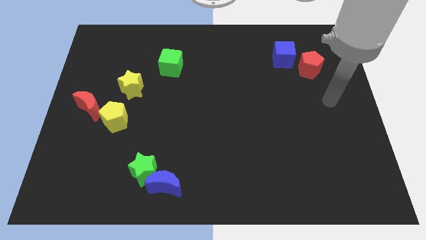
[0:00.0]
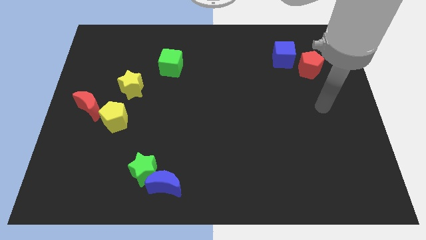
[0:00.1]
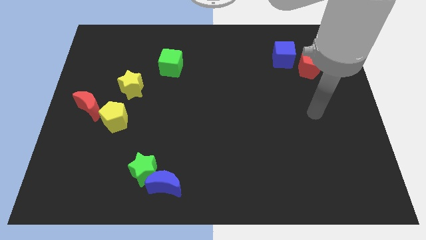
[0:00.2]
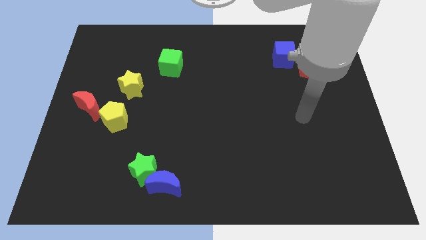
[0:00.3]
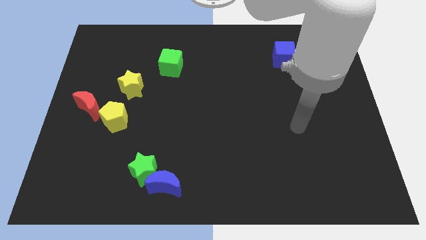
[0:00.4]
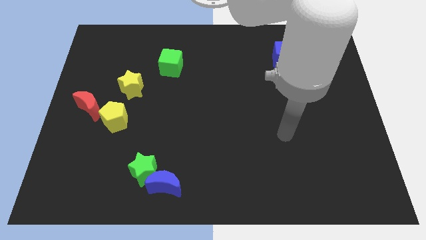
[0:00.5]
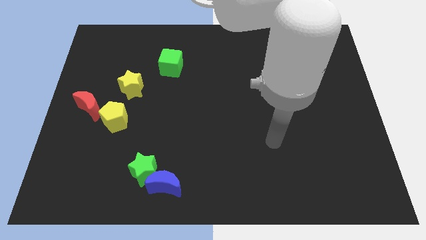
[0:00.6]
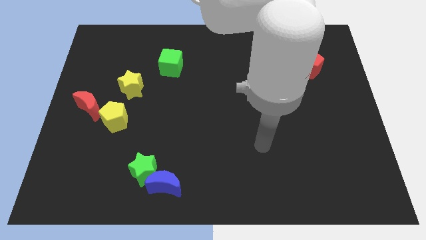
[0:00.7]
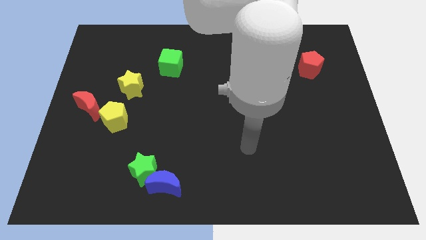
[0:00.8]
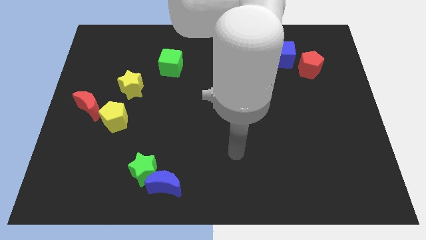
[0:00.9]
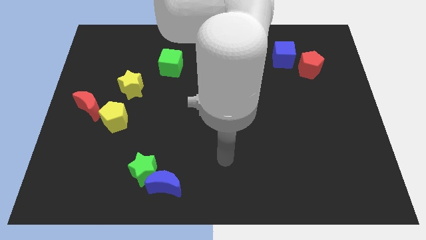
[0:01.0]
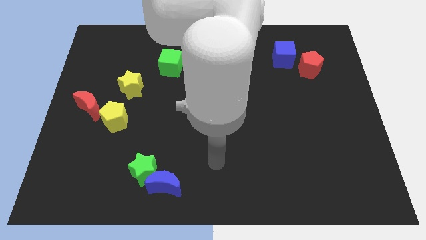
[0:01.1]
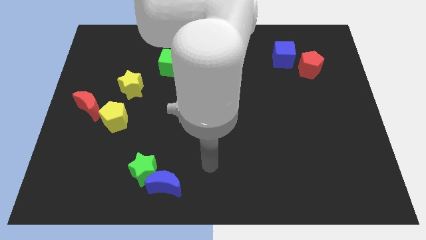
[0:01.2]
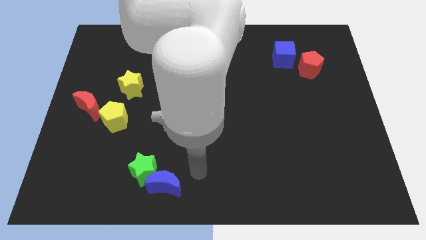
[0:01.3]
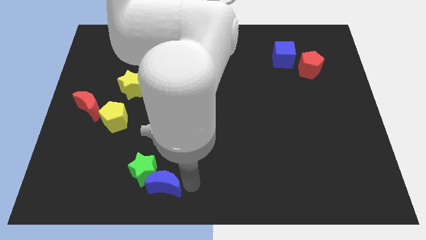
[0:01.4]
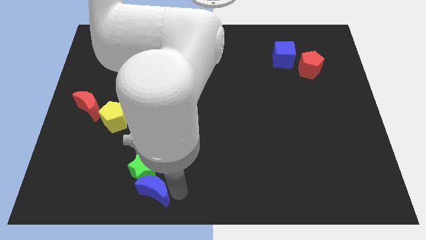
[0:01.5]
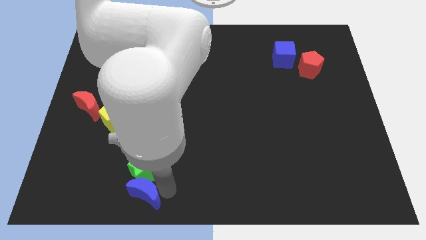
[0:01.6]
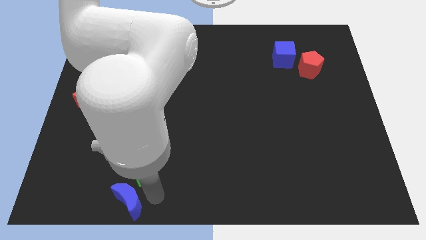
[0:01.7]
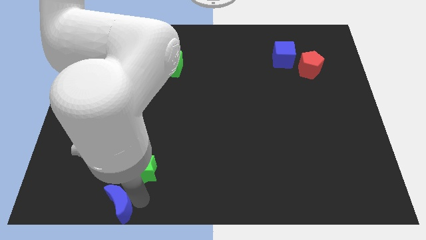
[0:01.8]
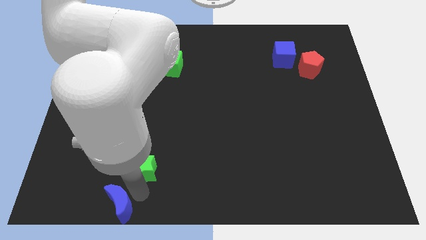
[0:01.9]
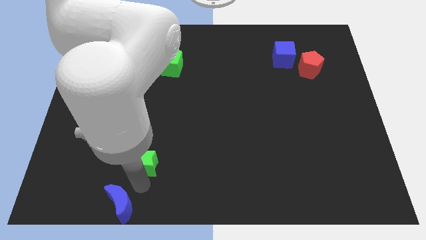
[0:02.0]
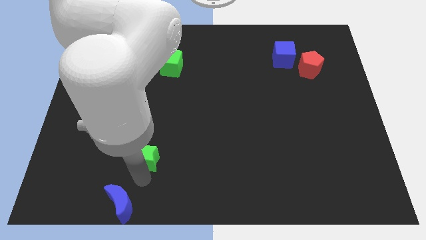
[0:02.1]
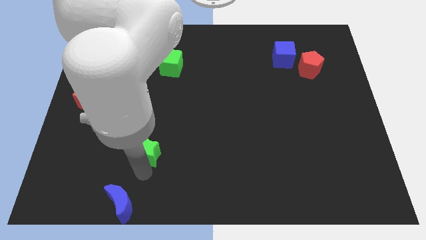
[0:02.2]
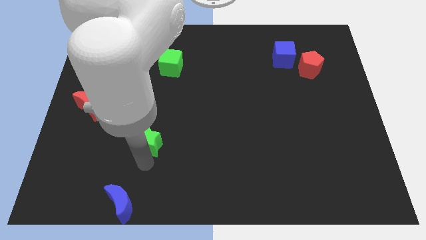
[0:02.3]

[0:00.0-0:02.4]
slightly slide the green star upwards

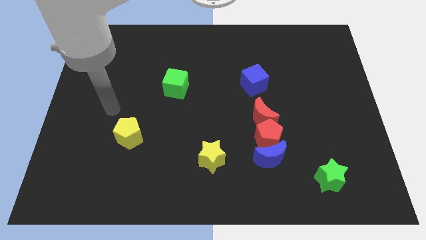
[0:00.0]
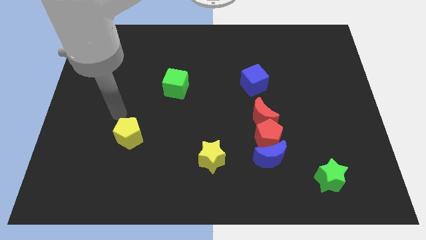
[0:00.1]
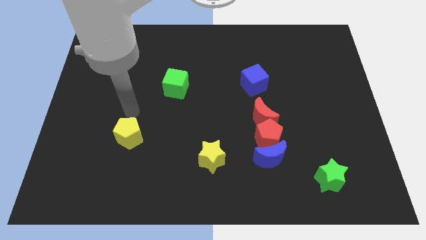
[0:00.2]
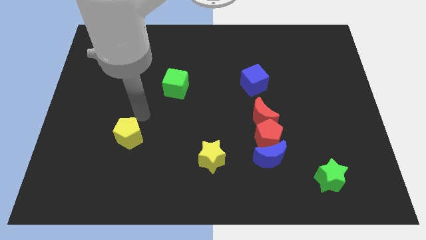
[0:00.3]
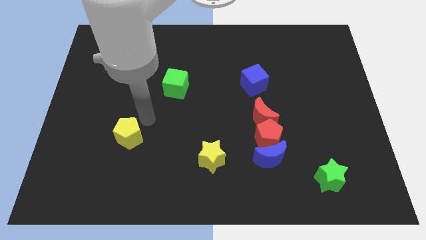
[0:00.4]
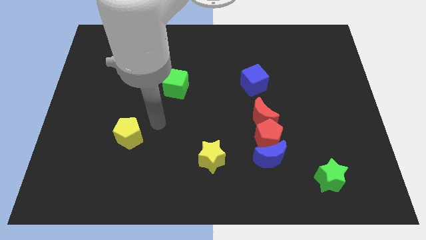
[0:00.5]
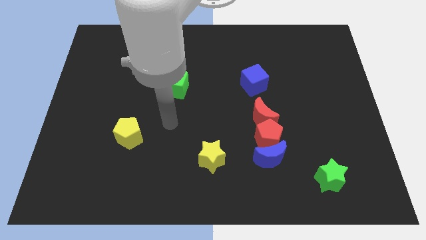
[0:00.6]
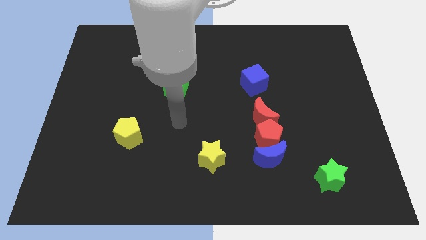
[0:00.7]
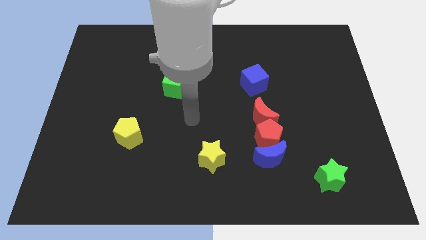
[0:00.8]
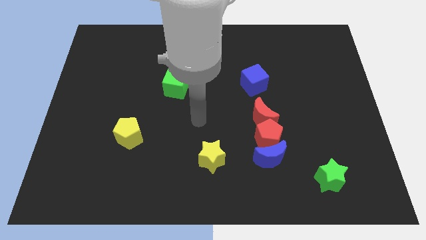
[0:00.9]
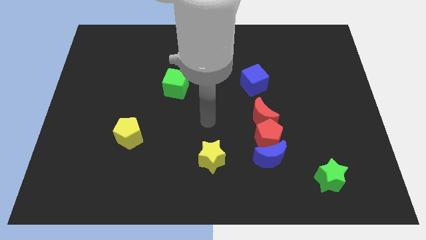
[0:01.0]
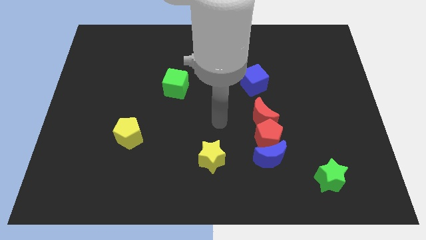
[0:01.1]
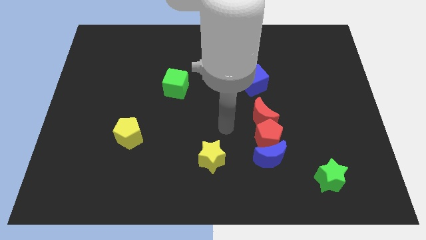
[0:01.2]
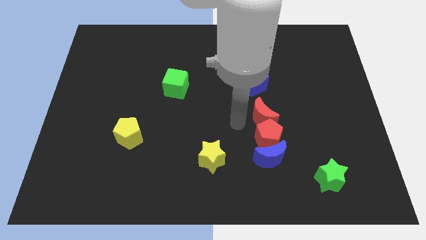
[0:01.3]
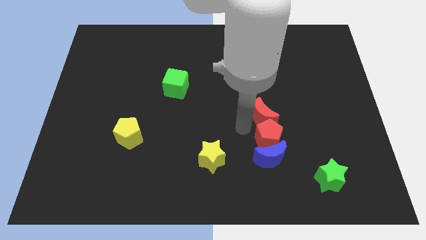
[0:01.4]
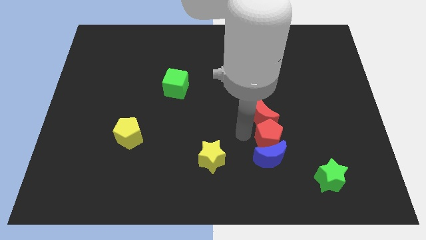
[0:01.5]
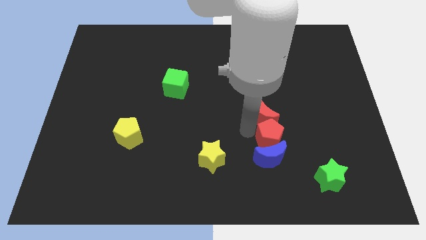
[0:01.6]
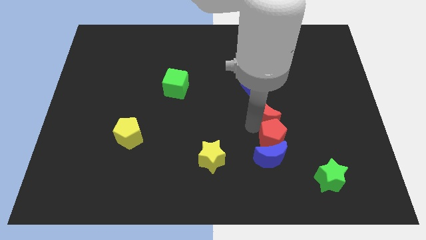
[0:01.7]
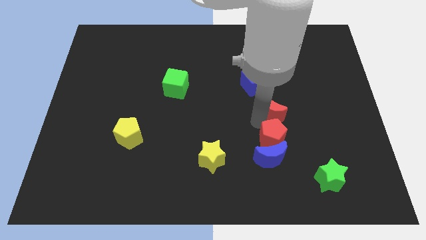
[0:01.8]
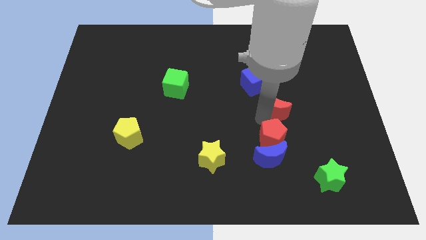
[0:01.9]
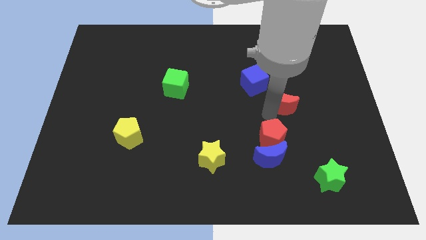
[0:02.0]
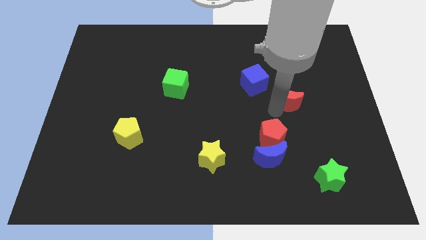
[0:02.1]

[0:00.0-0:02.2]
slide the red moon somewhat upwards and right

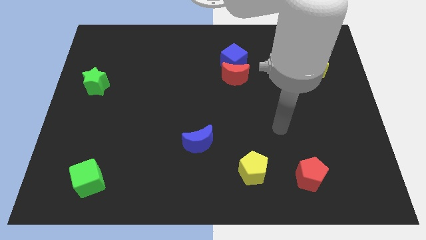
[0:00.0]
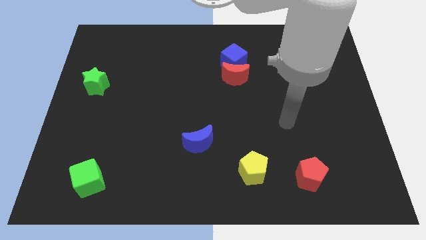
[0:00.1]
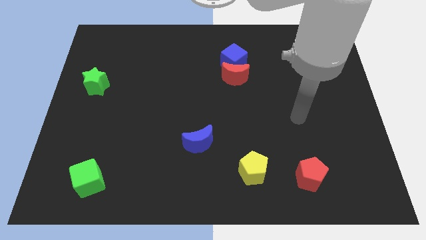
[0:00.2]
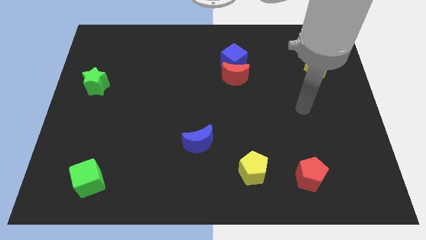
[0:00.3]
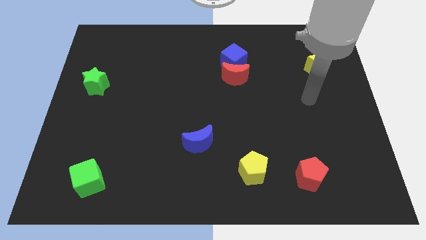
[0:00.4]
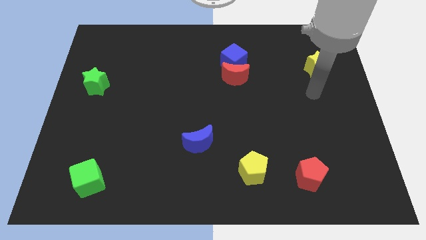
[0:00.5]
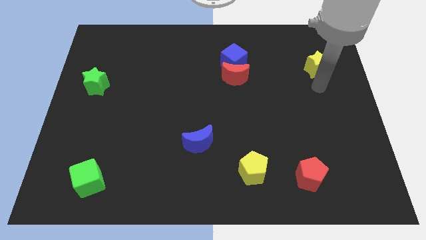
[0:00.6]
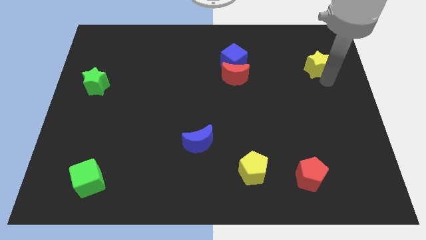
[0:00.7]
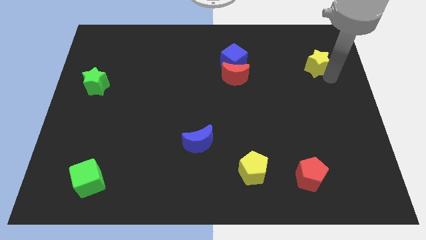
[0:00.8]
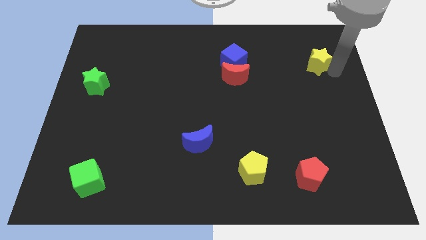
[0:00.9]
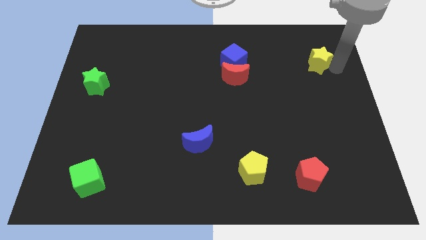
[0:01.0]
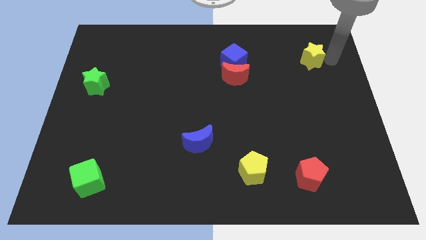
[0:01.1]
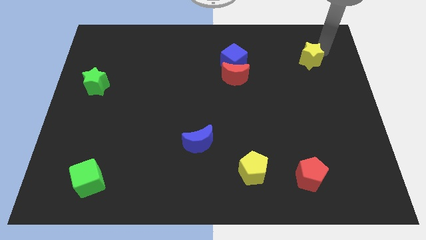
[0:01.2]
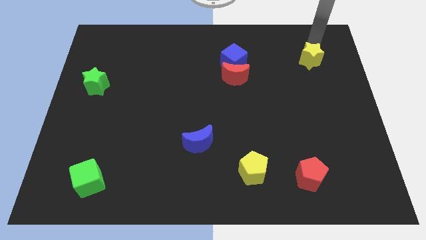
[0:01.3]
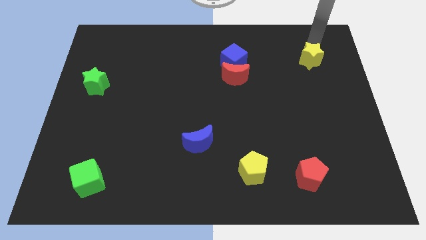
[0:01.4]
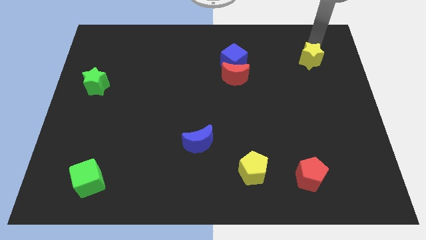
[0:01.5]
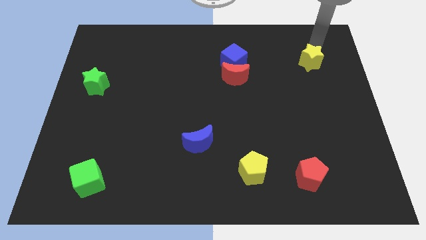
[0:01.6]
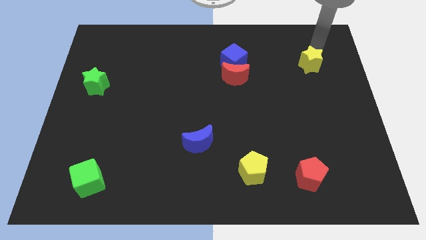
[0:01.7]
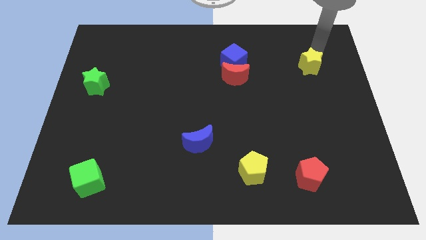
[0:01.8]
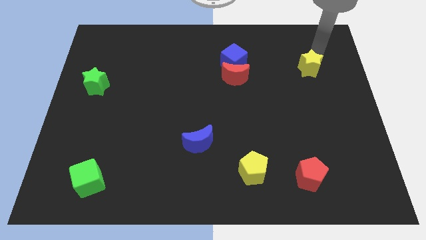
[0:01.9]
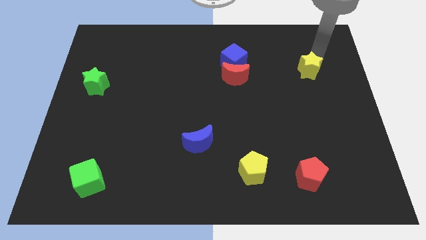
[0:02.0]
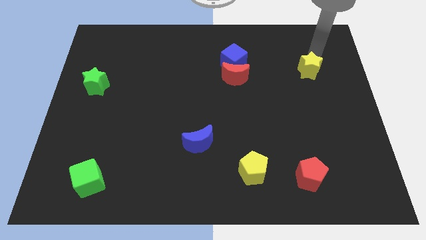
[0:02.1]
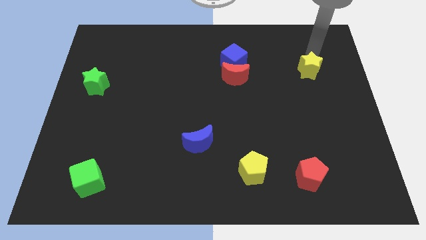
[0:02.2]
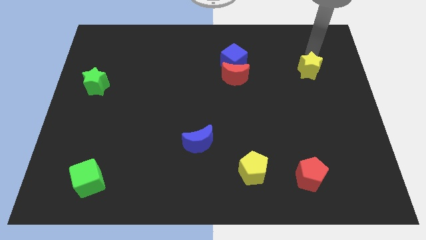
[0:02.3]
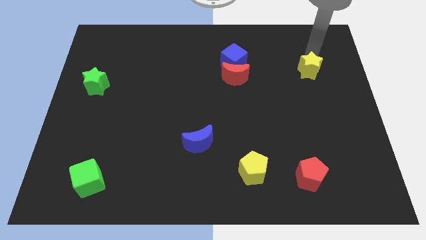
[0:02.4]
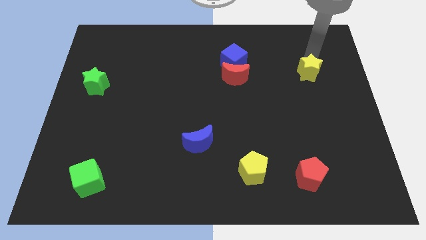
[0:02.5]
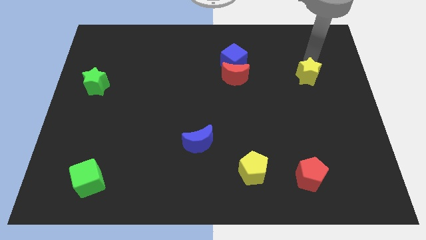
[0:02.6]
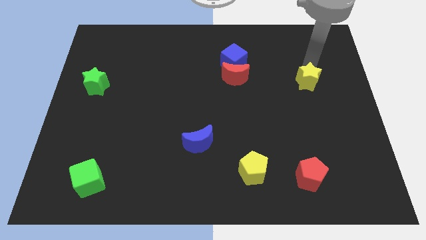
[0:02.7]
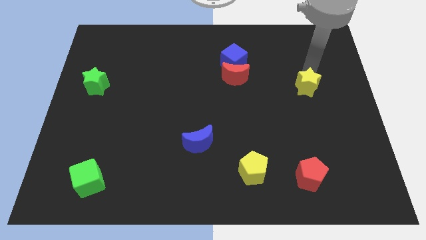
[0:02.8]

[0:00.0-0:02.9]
slide the yellow star slightly downwards and then left

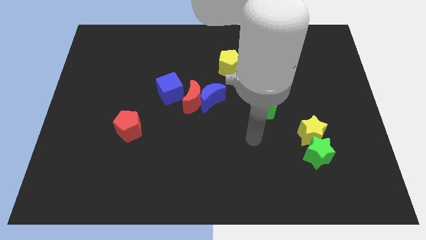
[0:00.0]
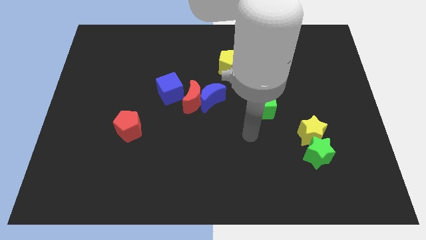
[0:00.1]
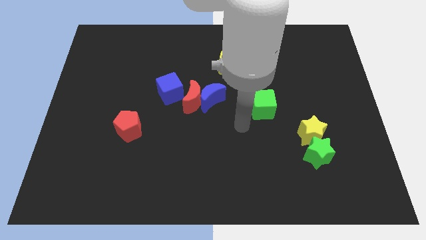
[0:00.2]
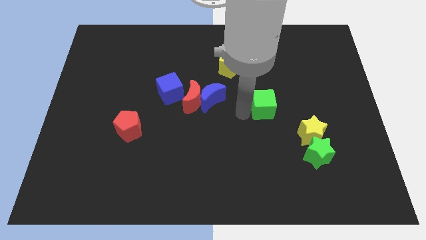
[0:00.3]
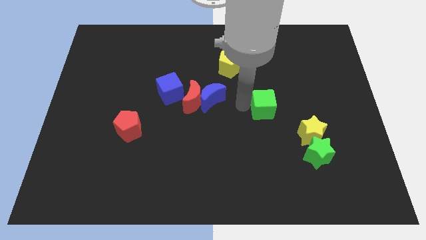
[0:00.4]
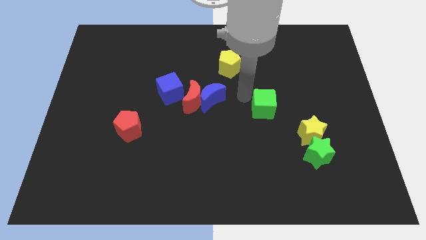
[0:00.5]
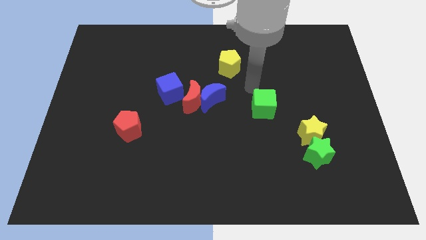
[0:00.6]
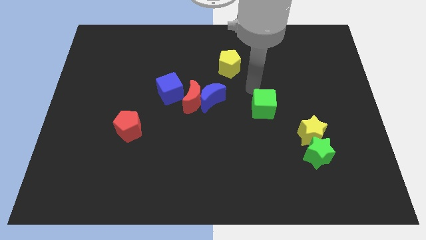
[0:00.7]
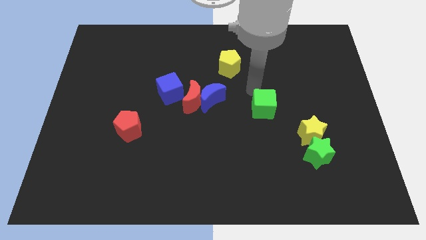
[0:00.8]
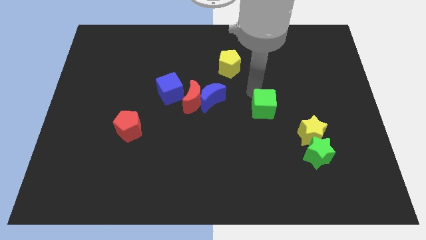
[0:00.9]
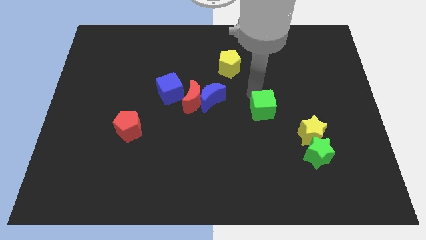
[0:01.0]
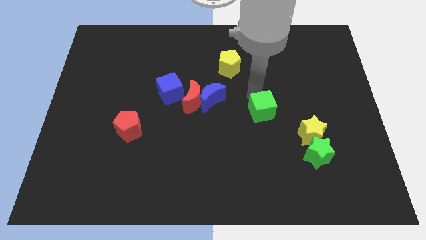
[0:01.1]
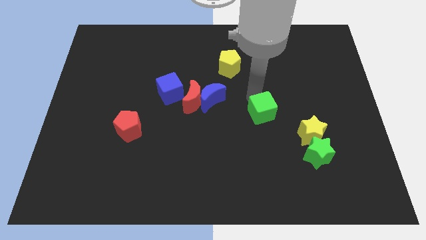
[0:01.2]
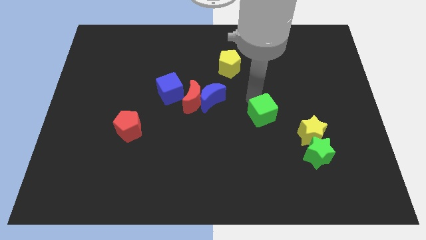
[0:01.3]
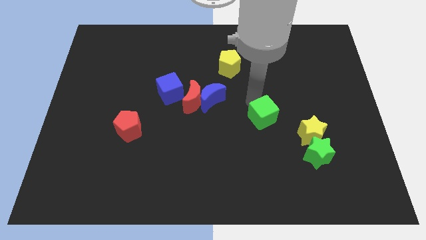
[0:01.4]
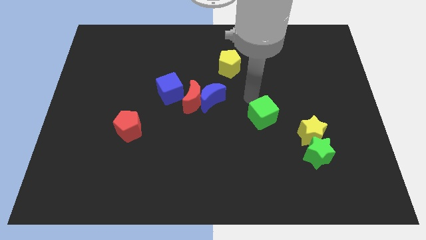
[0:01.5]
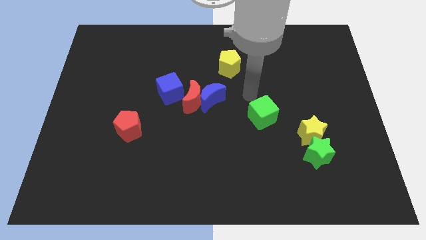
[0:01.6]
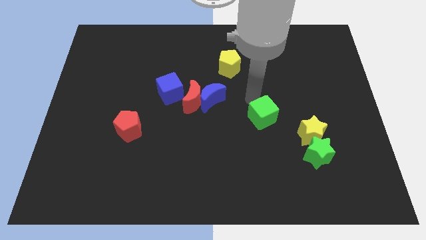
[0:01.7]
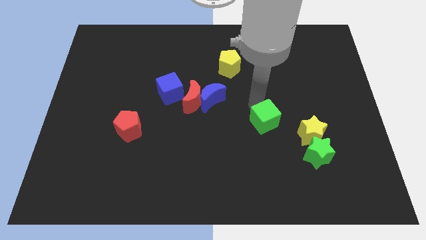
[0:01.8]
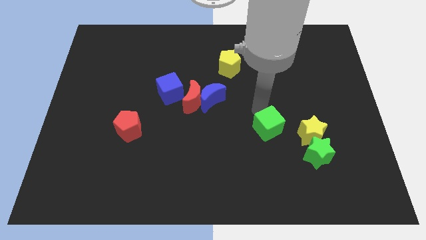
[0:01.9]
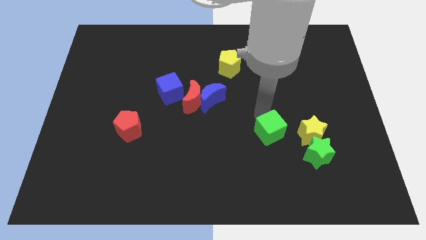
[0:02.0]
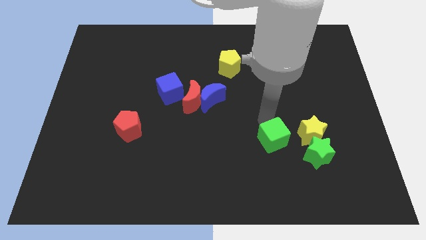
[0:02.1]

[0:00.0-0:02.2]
slide the green cube a little down
